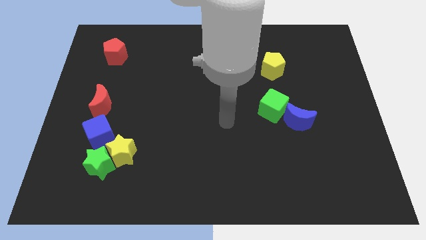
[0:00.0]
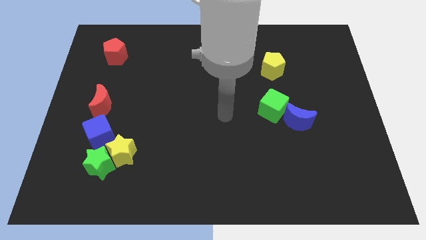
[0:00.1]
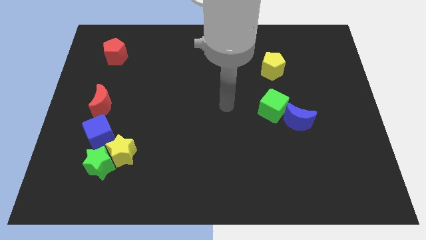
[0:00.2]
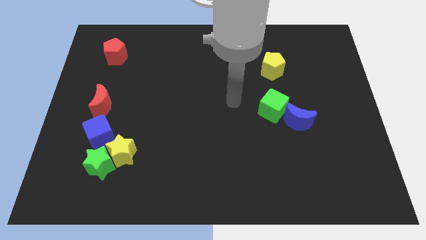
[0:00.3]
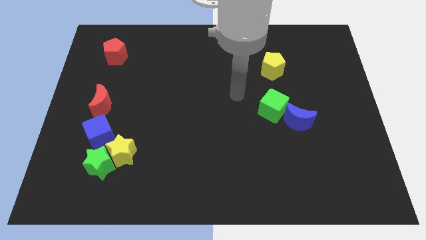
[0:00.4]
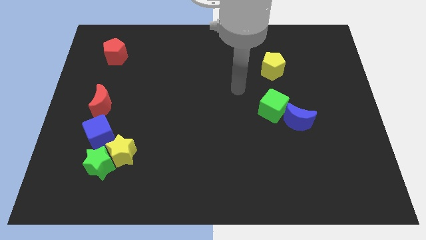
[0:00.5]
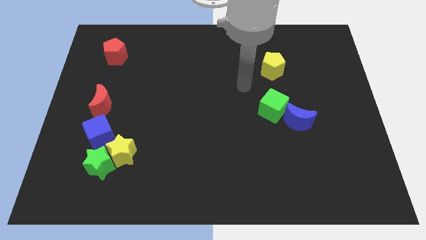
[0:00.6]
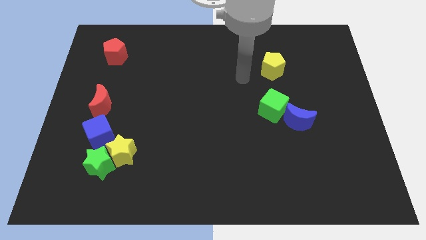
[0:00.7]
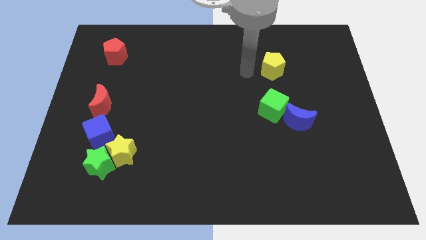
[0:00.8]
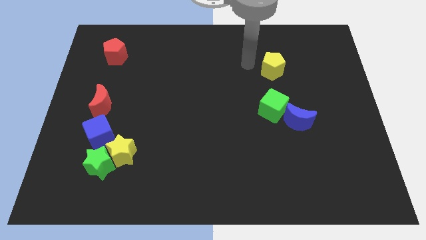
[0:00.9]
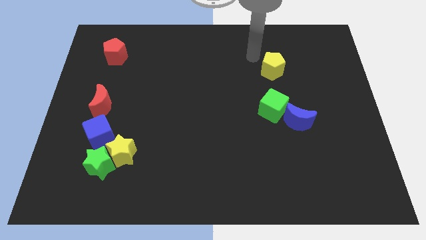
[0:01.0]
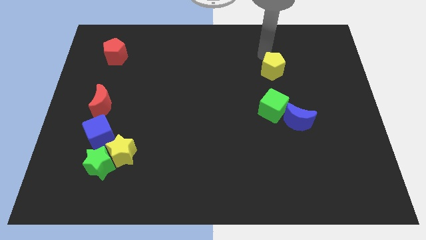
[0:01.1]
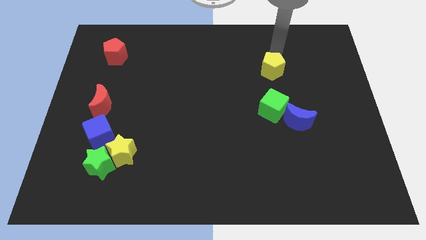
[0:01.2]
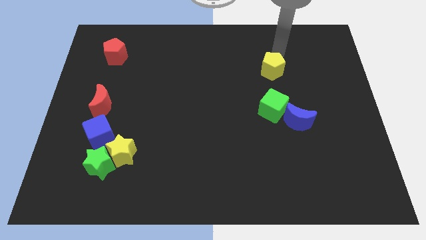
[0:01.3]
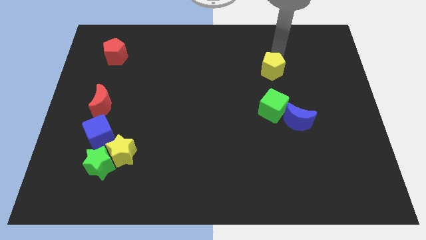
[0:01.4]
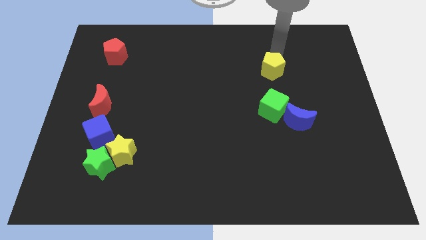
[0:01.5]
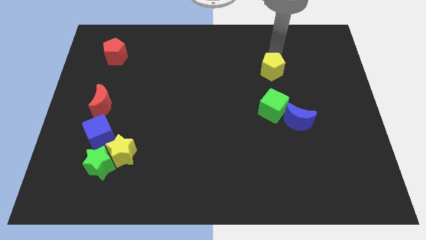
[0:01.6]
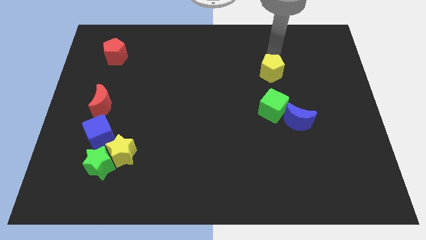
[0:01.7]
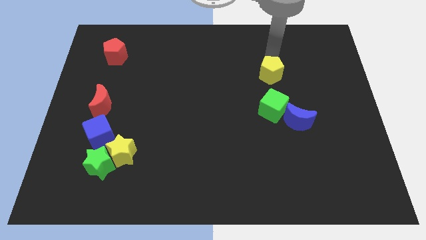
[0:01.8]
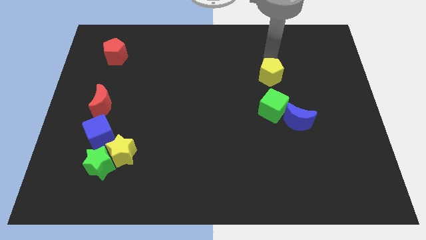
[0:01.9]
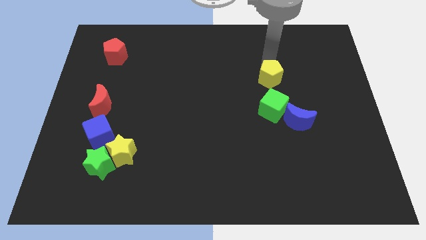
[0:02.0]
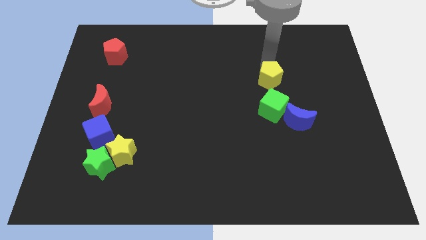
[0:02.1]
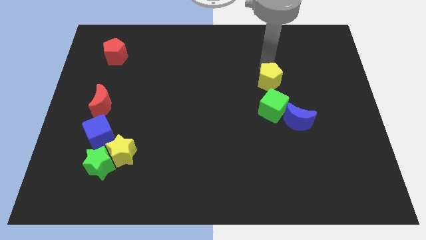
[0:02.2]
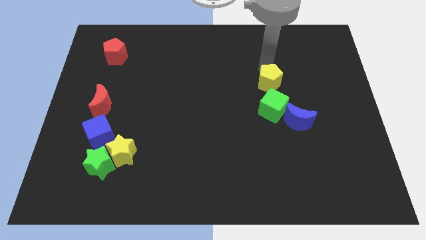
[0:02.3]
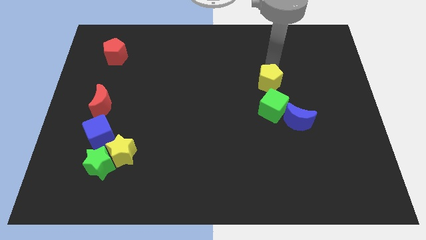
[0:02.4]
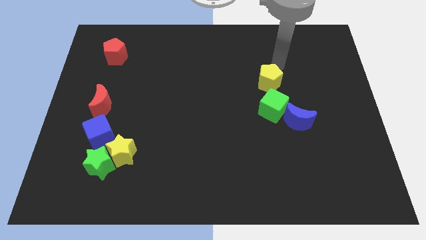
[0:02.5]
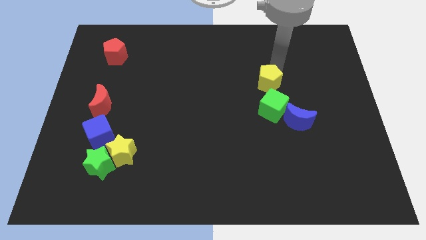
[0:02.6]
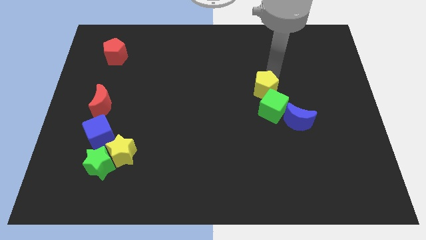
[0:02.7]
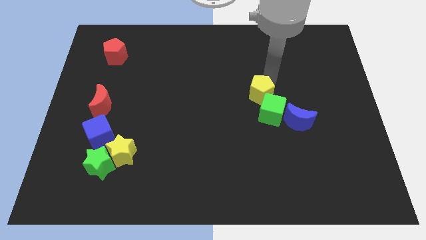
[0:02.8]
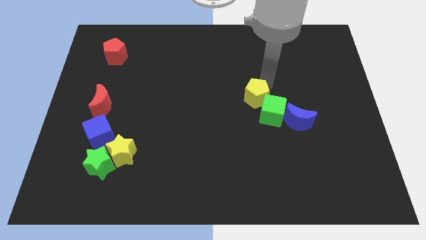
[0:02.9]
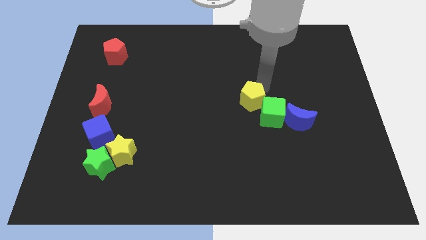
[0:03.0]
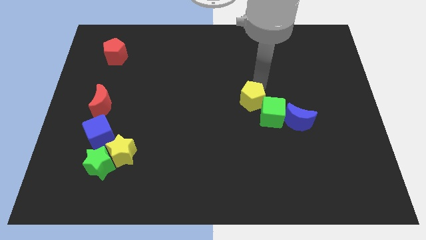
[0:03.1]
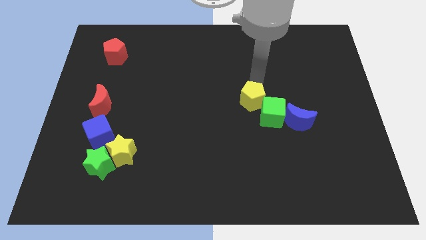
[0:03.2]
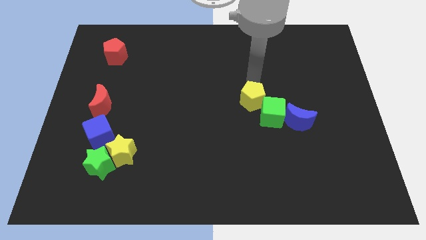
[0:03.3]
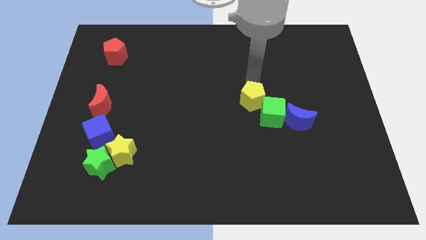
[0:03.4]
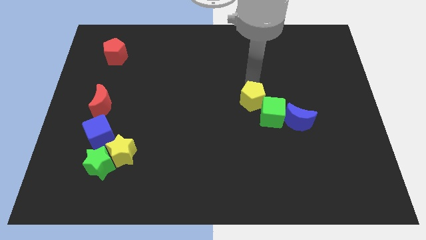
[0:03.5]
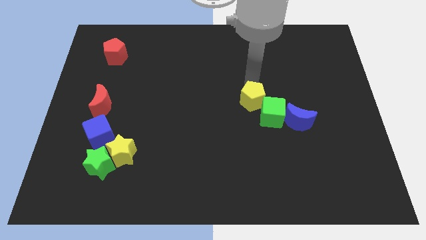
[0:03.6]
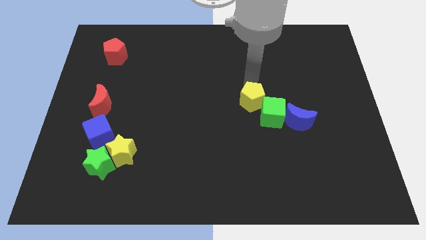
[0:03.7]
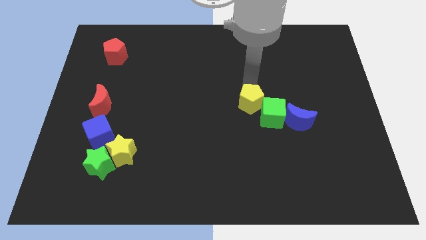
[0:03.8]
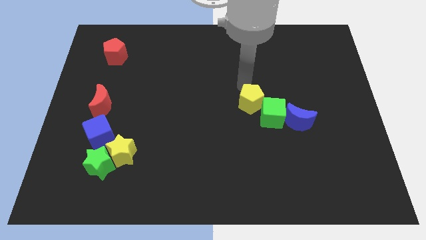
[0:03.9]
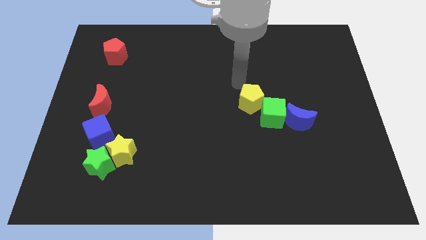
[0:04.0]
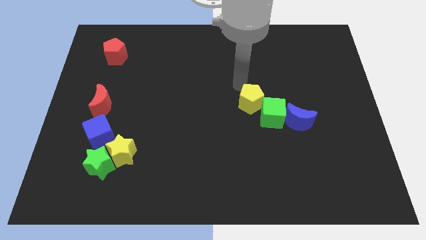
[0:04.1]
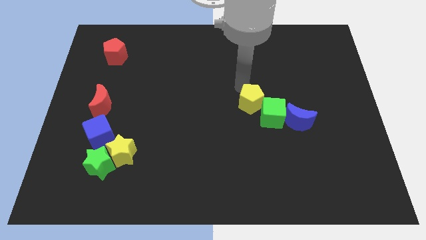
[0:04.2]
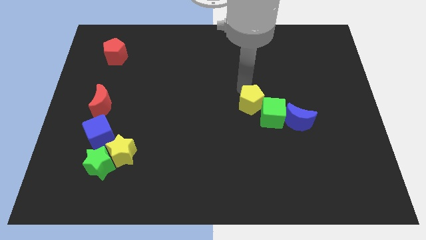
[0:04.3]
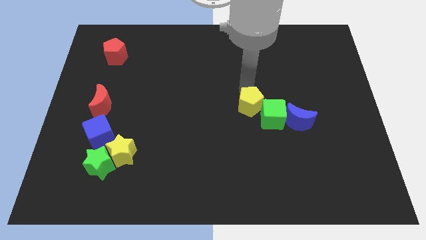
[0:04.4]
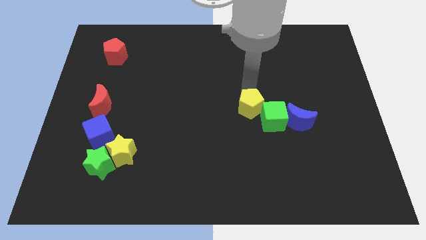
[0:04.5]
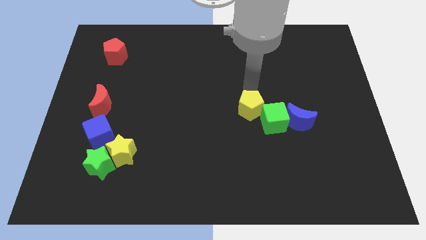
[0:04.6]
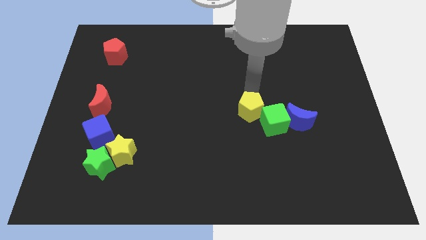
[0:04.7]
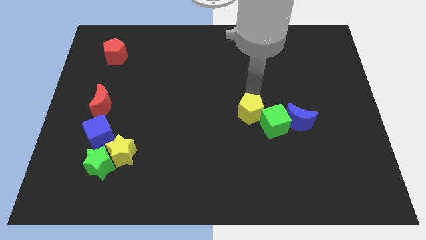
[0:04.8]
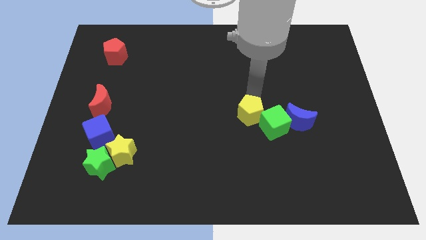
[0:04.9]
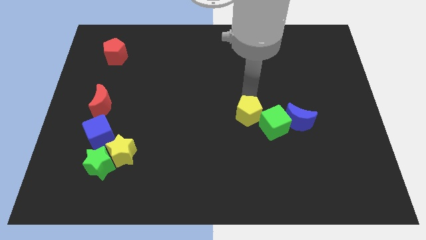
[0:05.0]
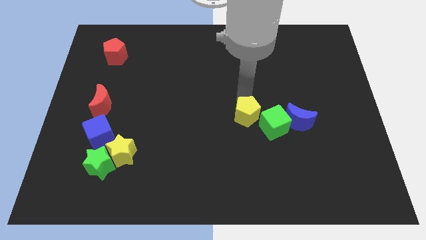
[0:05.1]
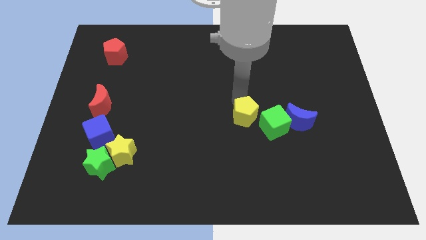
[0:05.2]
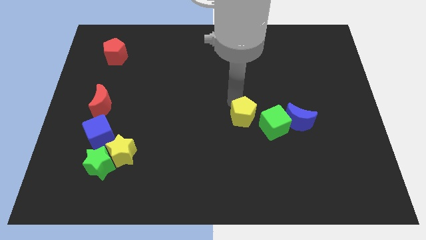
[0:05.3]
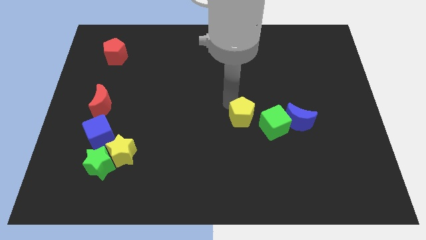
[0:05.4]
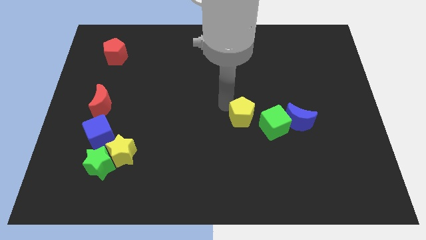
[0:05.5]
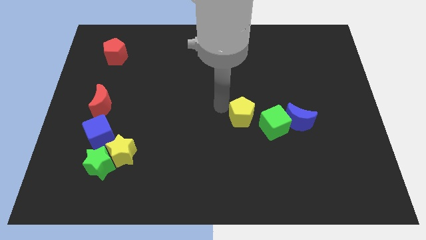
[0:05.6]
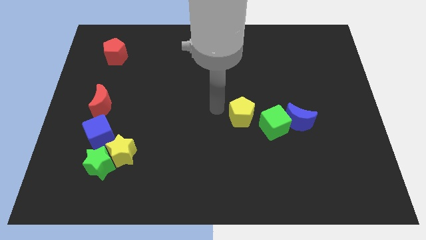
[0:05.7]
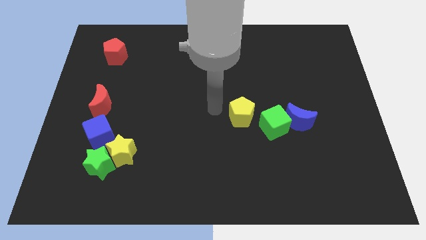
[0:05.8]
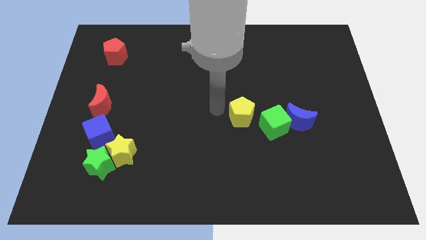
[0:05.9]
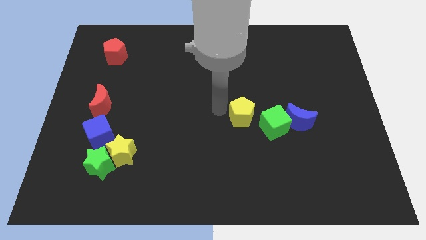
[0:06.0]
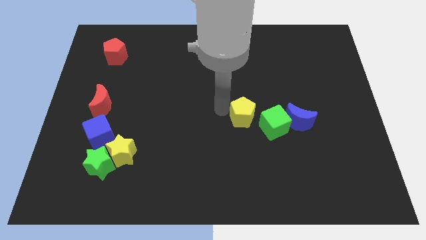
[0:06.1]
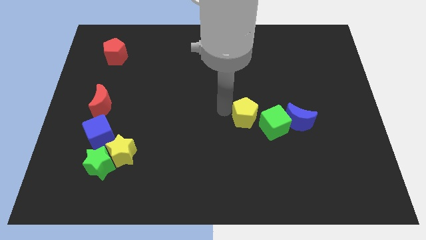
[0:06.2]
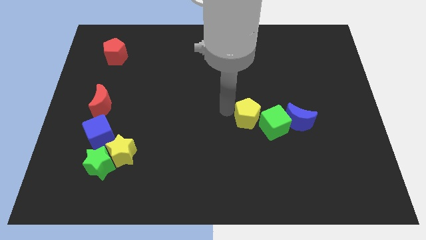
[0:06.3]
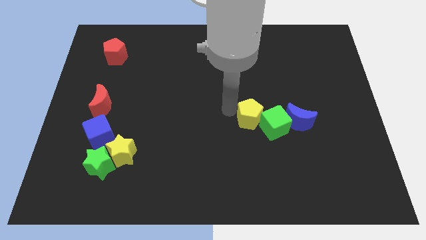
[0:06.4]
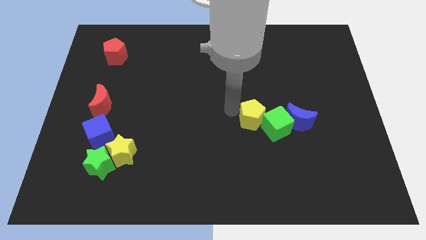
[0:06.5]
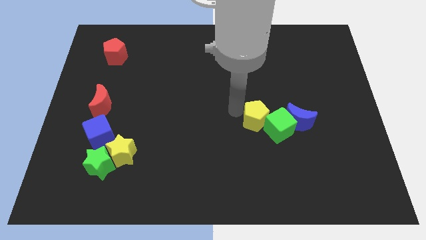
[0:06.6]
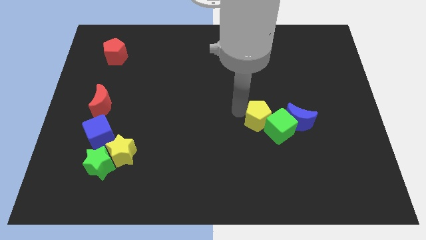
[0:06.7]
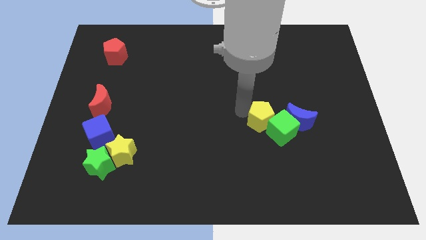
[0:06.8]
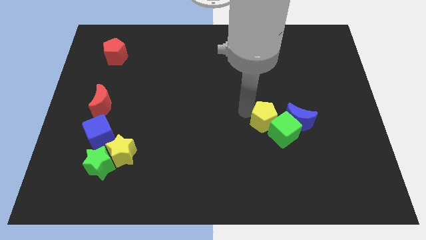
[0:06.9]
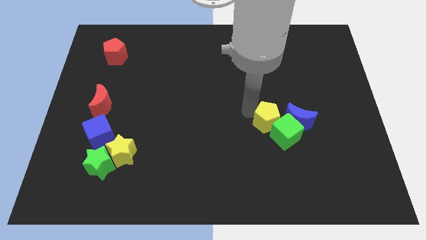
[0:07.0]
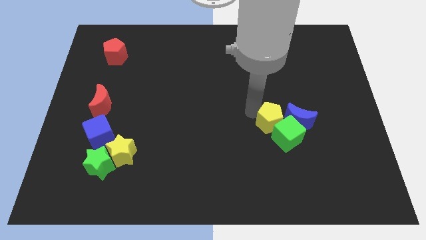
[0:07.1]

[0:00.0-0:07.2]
push the yellow pentagon diagonally down and to the left of the blue moon
